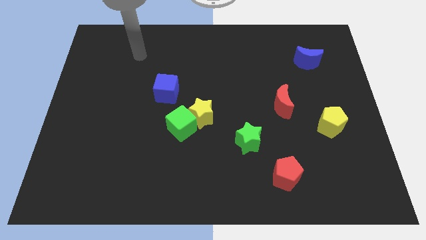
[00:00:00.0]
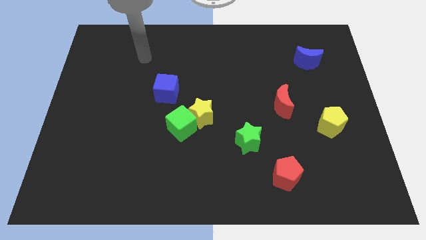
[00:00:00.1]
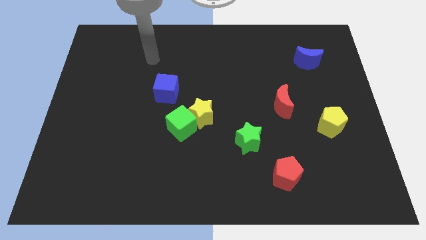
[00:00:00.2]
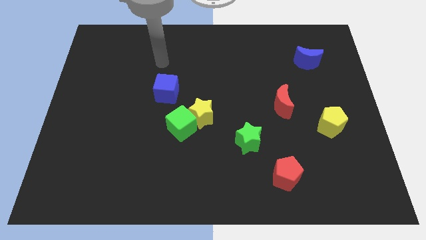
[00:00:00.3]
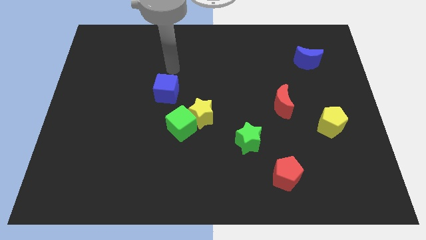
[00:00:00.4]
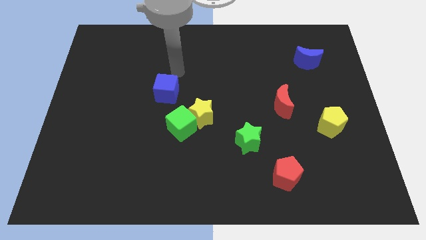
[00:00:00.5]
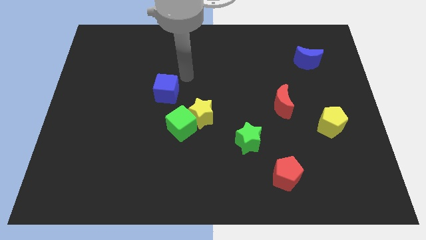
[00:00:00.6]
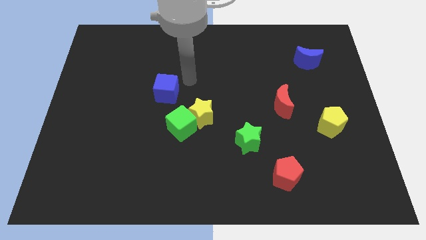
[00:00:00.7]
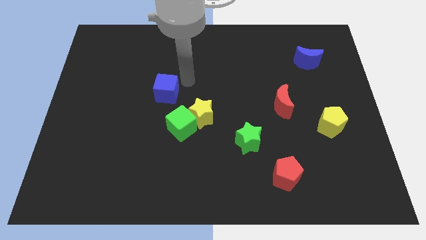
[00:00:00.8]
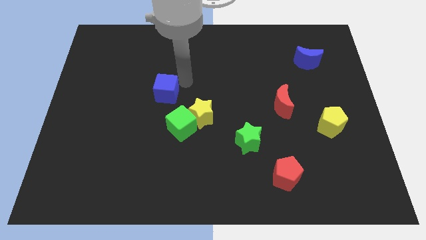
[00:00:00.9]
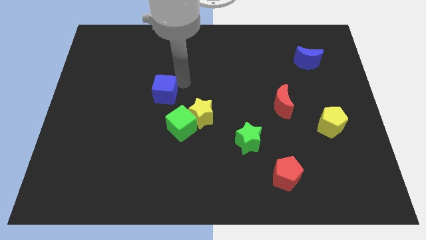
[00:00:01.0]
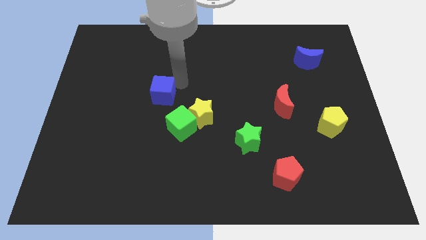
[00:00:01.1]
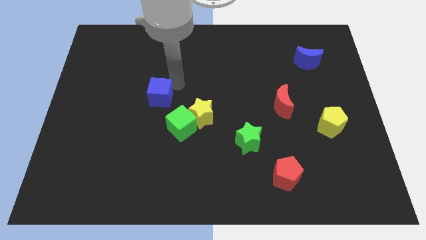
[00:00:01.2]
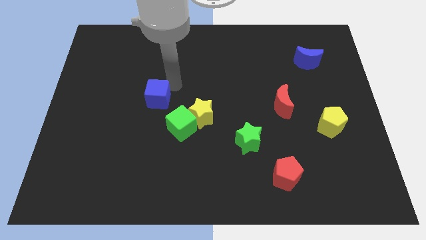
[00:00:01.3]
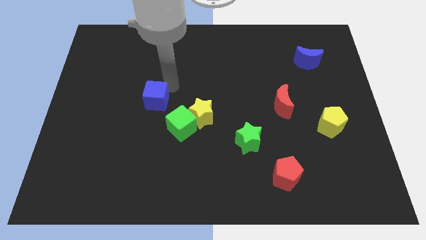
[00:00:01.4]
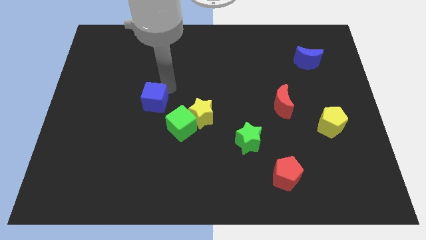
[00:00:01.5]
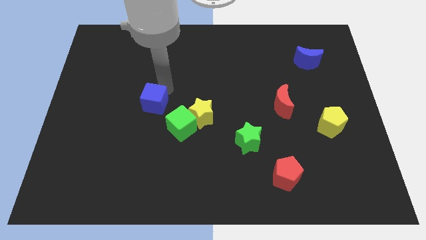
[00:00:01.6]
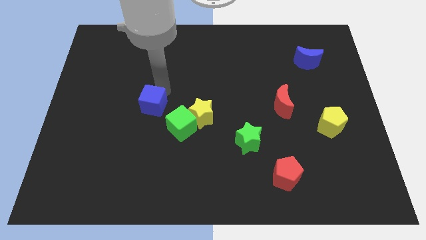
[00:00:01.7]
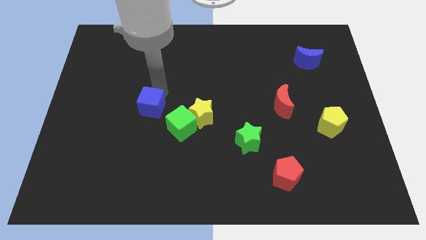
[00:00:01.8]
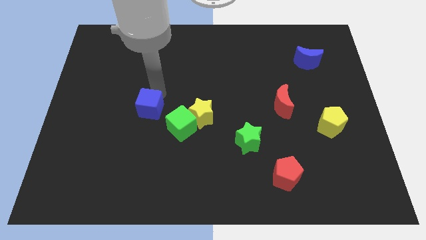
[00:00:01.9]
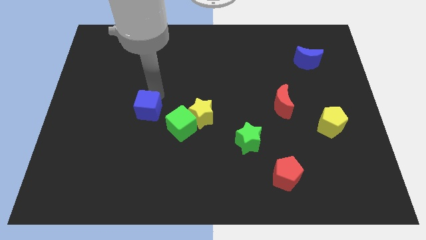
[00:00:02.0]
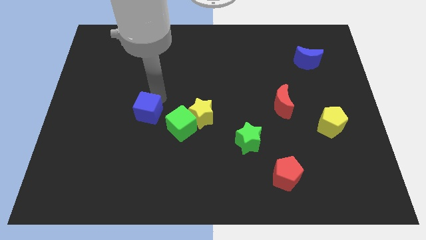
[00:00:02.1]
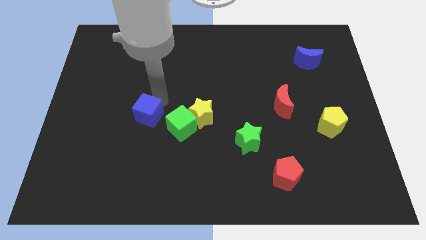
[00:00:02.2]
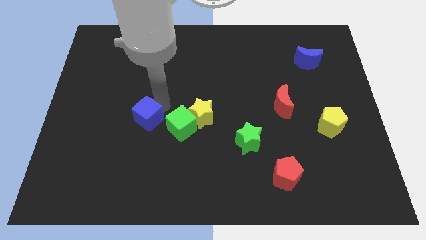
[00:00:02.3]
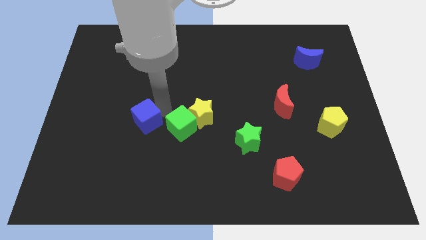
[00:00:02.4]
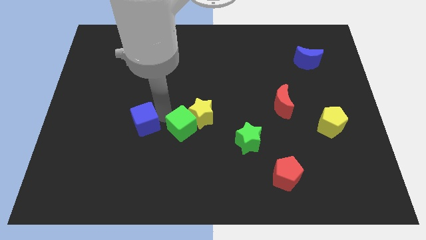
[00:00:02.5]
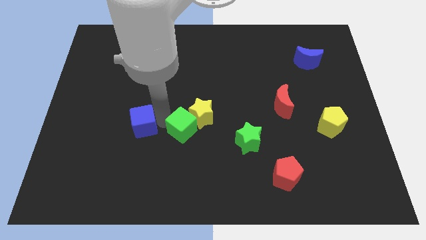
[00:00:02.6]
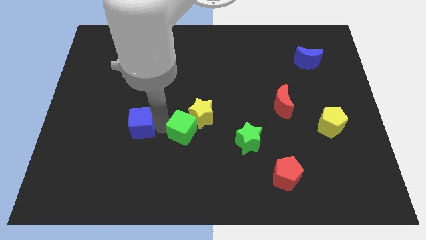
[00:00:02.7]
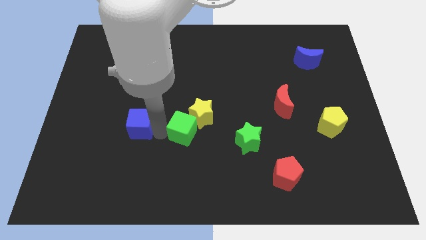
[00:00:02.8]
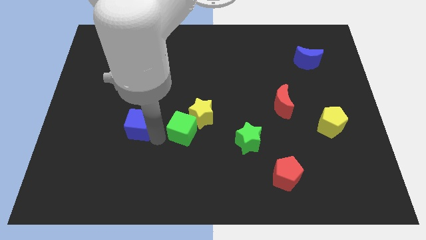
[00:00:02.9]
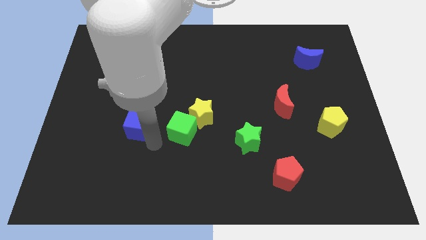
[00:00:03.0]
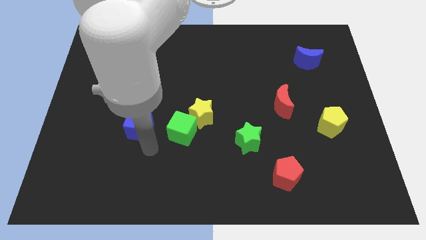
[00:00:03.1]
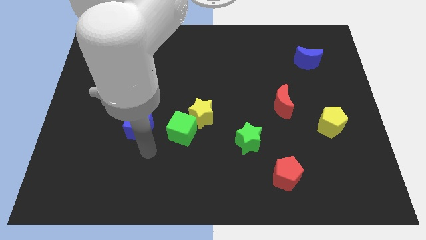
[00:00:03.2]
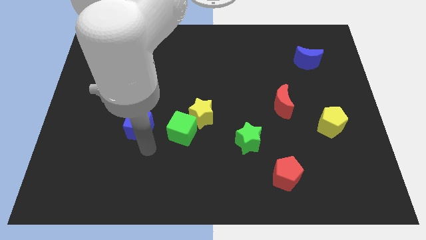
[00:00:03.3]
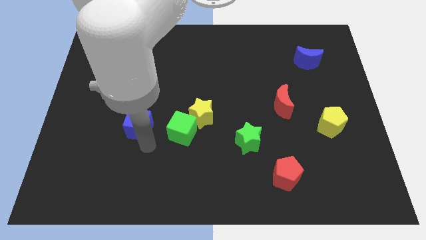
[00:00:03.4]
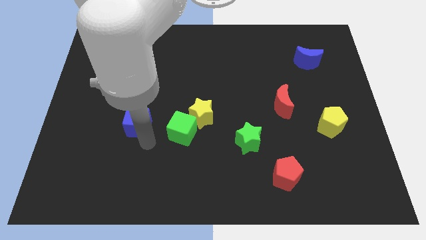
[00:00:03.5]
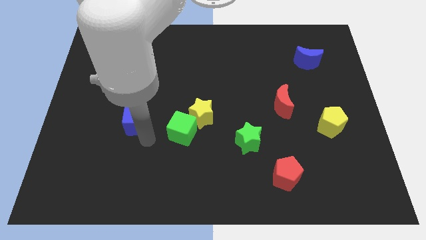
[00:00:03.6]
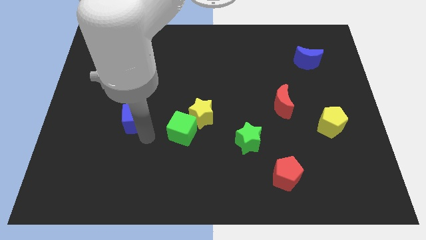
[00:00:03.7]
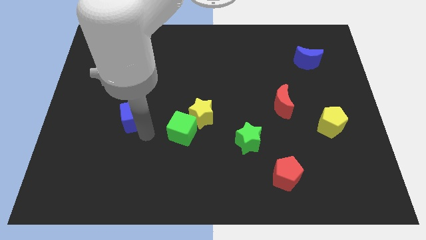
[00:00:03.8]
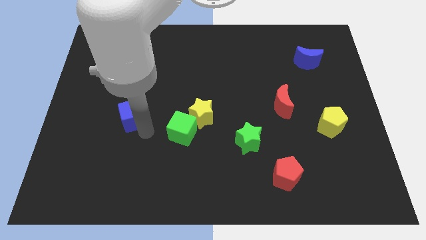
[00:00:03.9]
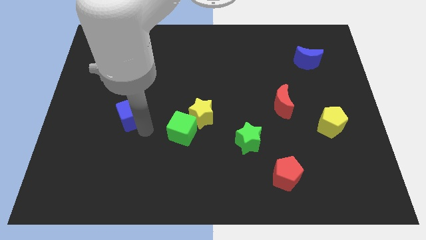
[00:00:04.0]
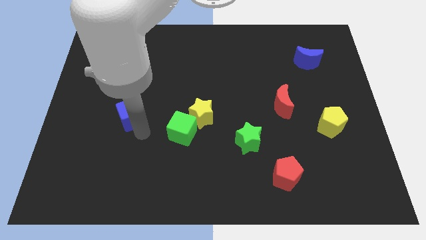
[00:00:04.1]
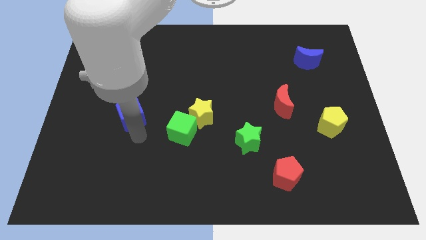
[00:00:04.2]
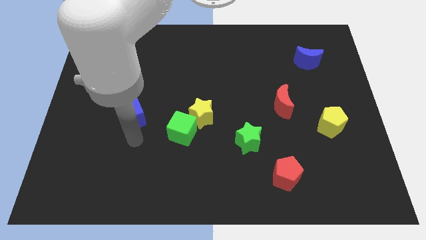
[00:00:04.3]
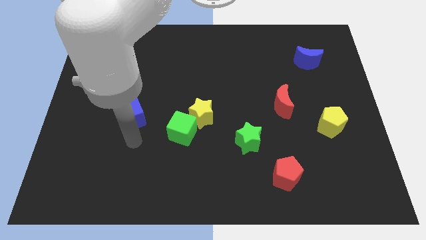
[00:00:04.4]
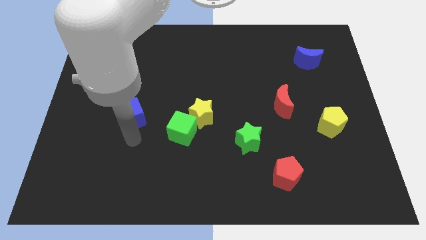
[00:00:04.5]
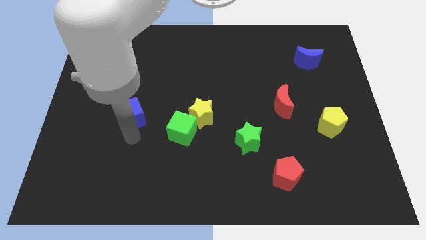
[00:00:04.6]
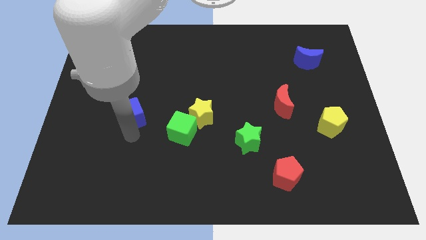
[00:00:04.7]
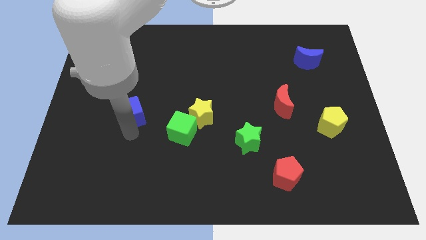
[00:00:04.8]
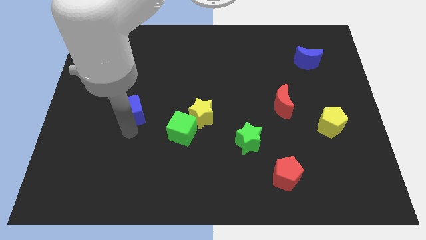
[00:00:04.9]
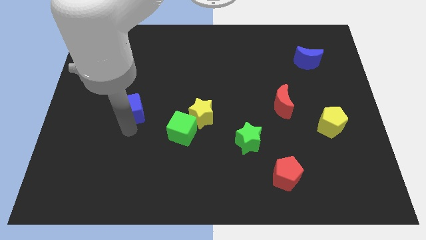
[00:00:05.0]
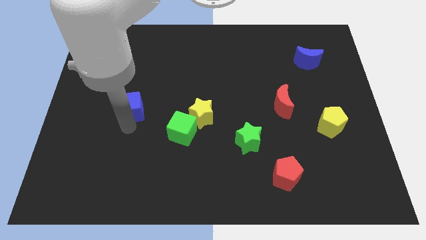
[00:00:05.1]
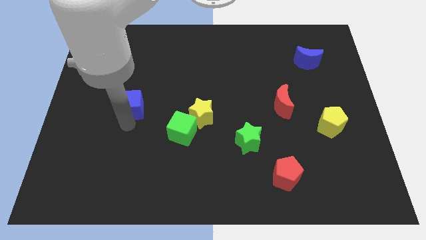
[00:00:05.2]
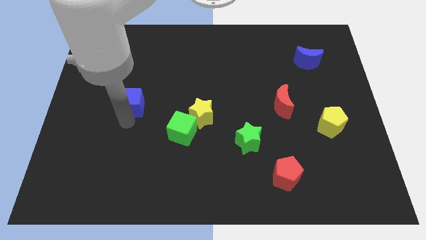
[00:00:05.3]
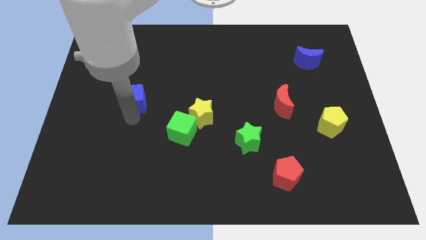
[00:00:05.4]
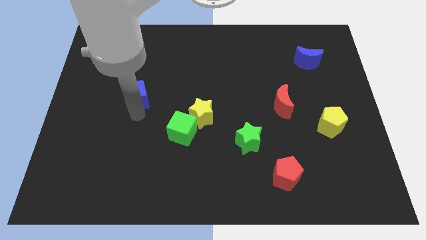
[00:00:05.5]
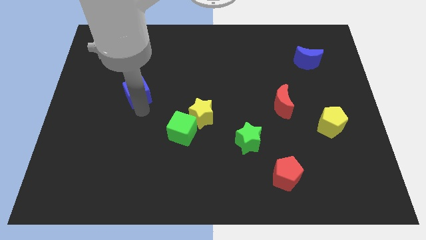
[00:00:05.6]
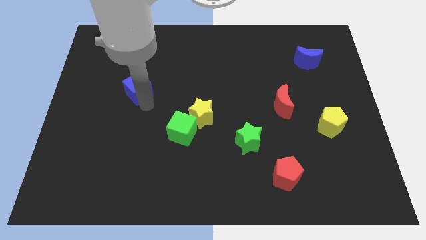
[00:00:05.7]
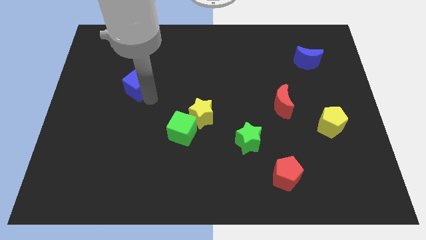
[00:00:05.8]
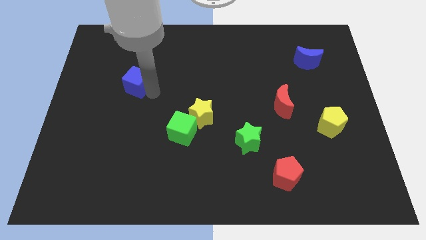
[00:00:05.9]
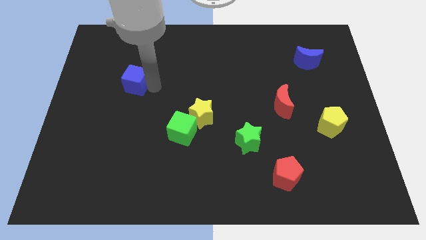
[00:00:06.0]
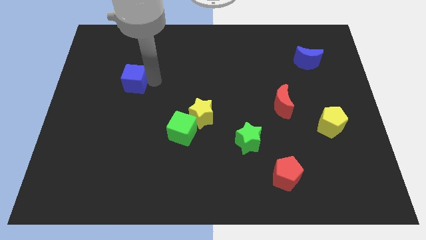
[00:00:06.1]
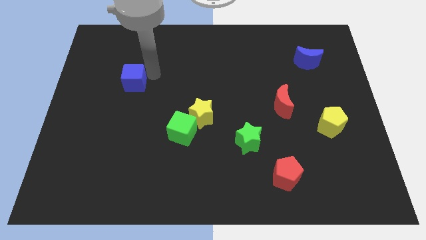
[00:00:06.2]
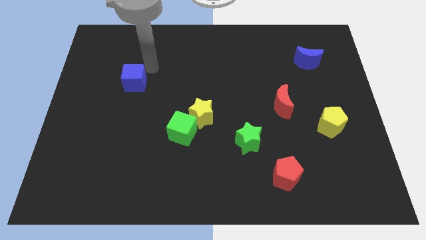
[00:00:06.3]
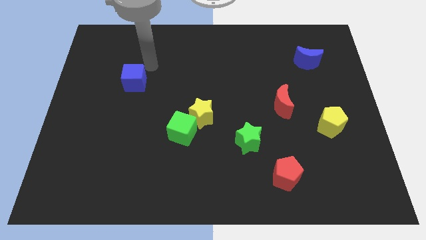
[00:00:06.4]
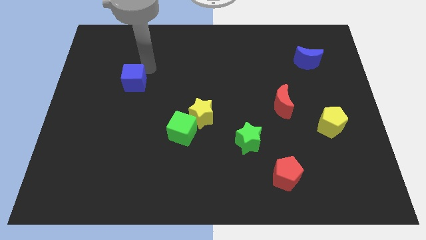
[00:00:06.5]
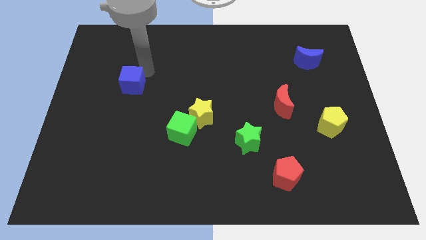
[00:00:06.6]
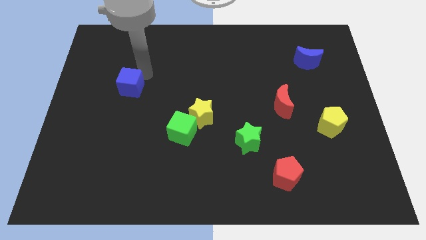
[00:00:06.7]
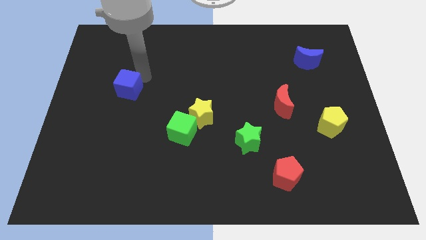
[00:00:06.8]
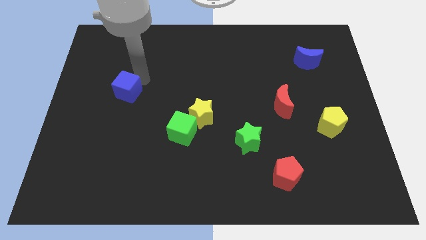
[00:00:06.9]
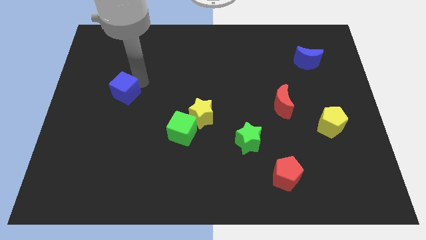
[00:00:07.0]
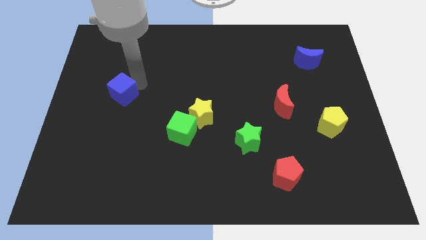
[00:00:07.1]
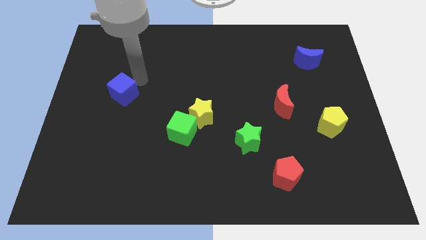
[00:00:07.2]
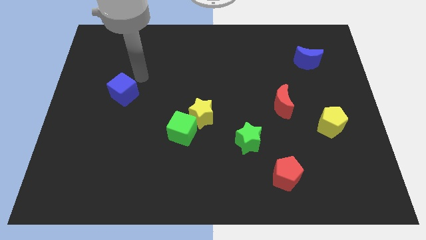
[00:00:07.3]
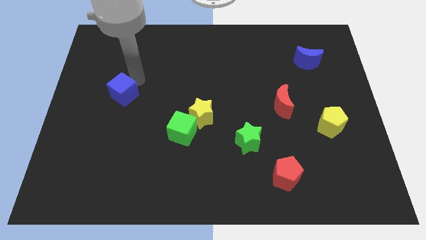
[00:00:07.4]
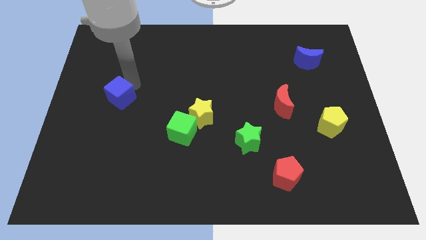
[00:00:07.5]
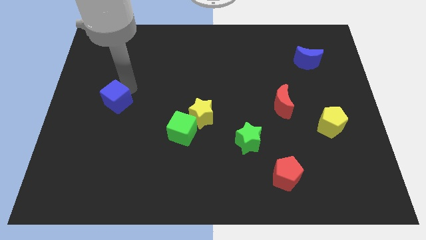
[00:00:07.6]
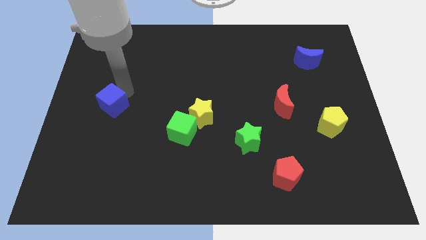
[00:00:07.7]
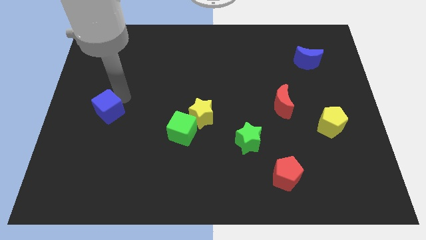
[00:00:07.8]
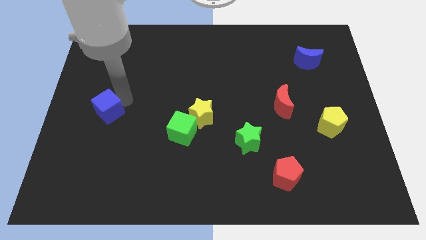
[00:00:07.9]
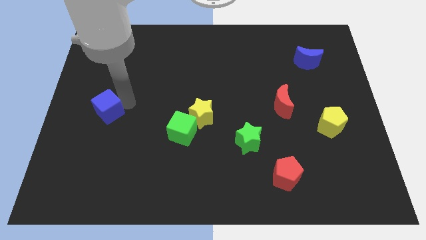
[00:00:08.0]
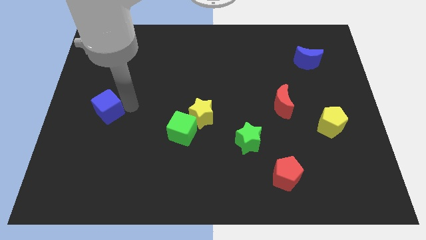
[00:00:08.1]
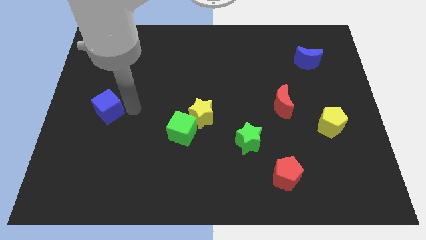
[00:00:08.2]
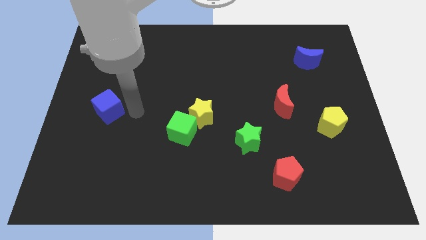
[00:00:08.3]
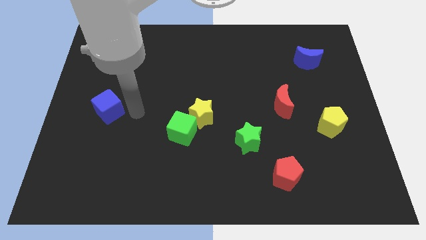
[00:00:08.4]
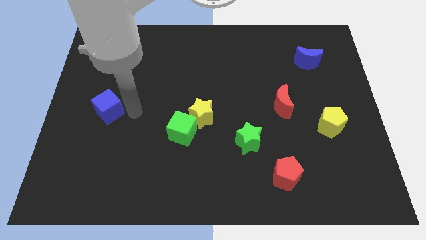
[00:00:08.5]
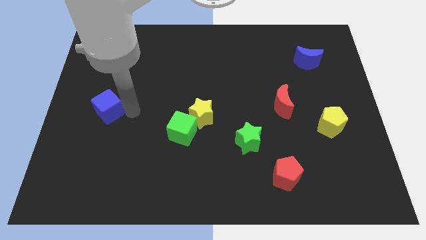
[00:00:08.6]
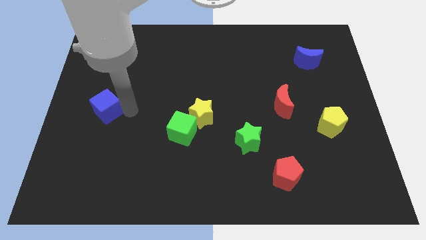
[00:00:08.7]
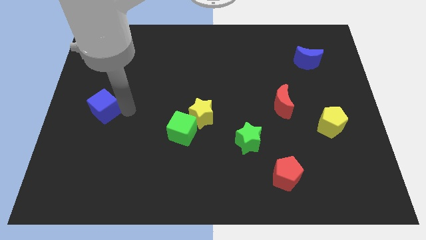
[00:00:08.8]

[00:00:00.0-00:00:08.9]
move the blue cube to the center left
